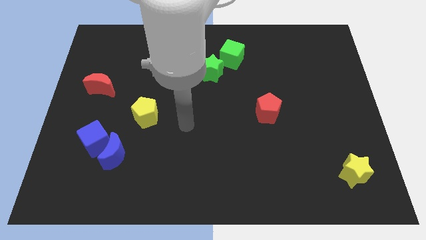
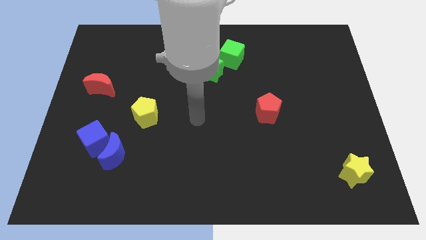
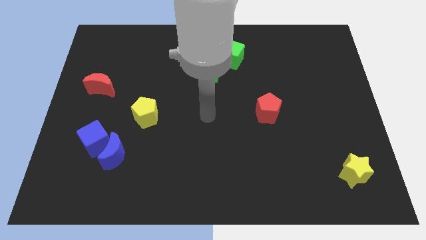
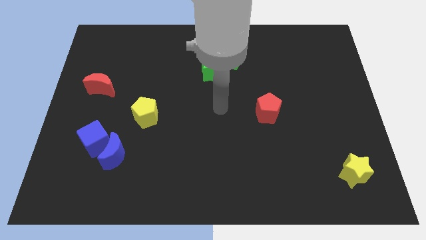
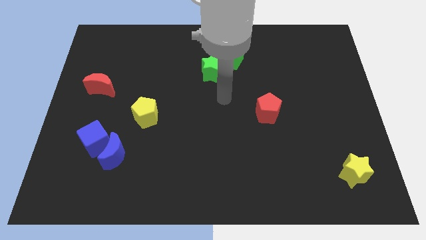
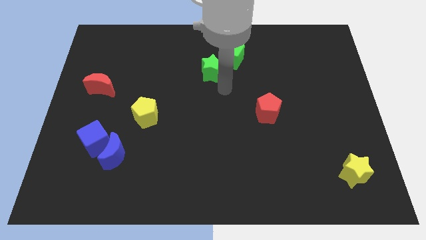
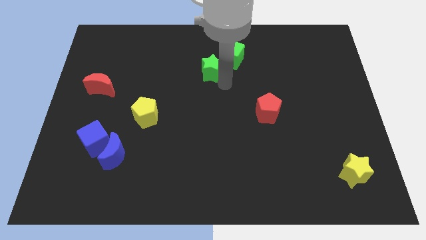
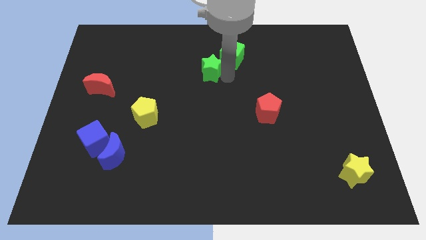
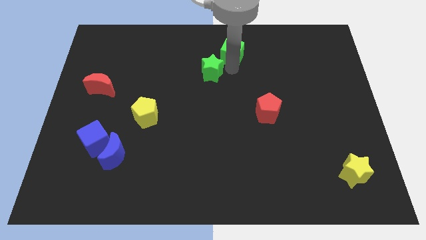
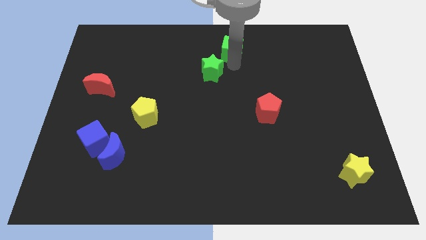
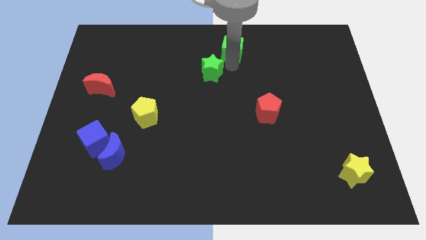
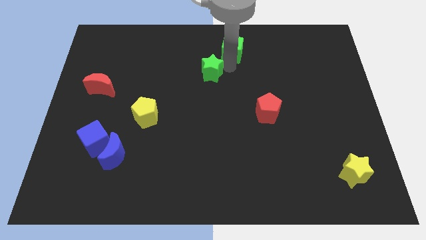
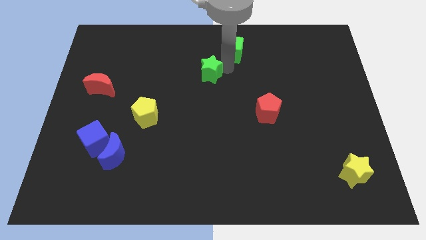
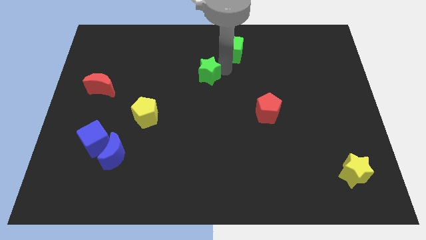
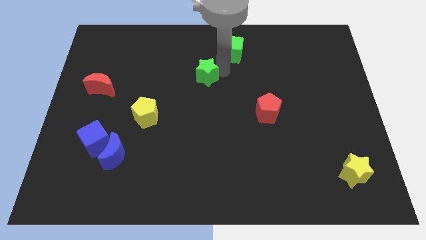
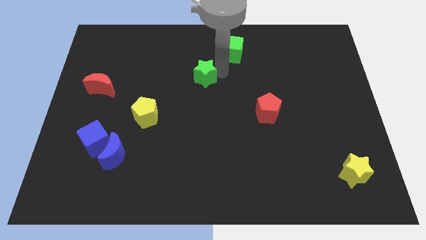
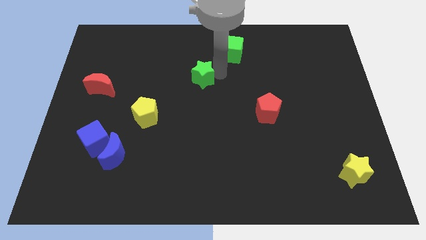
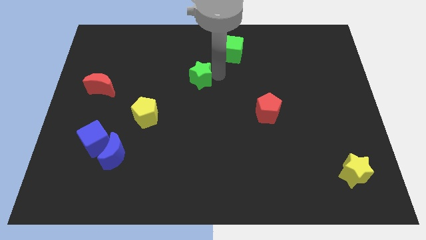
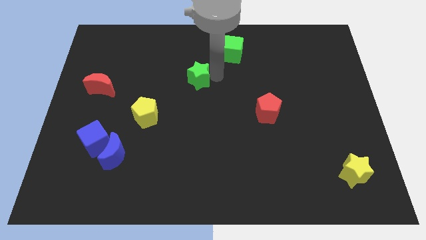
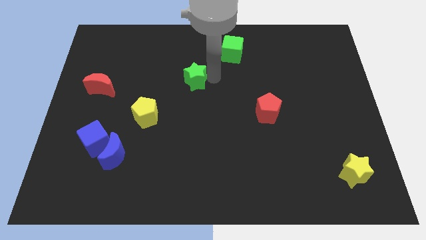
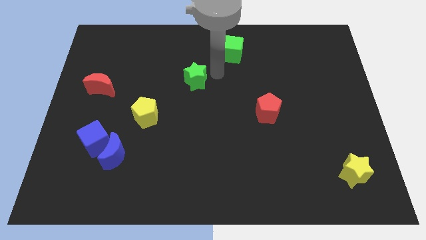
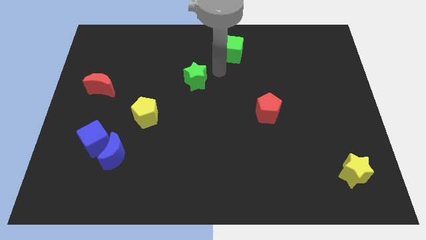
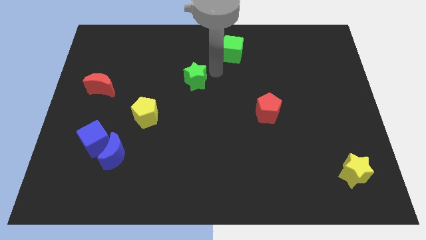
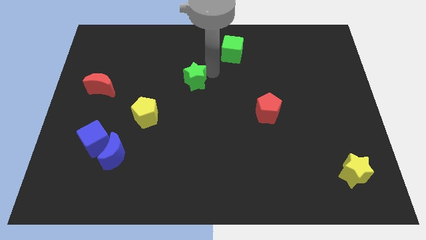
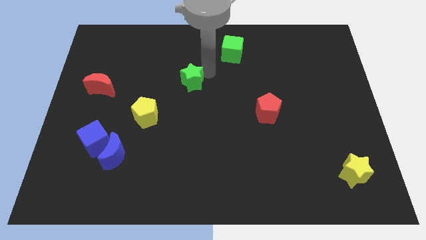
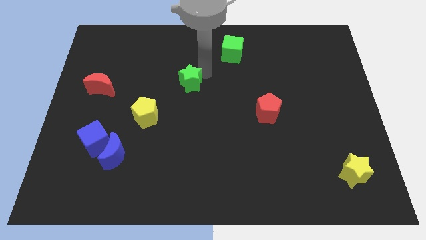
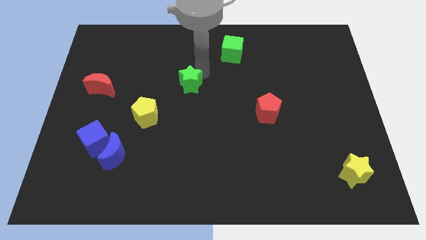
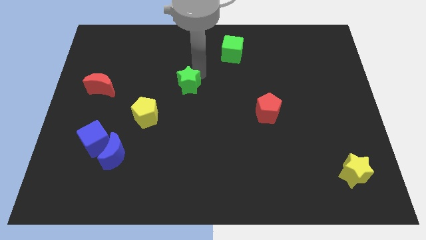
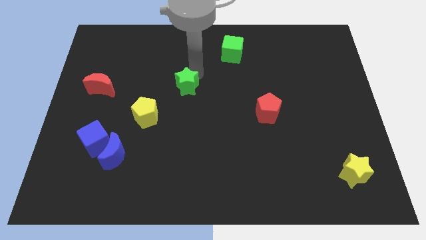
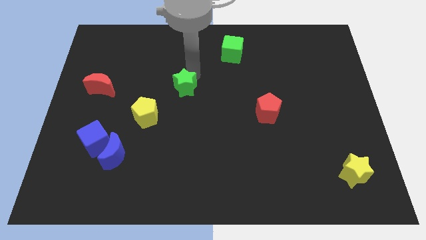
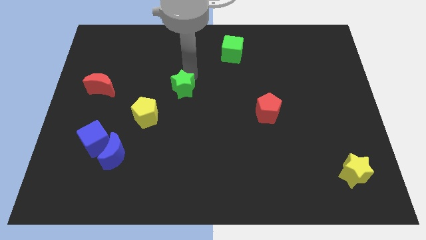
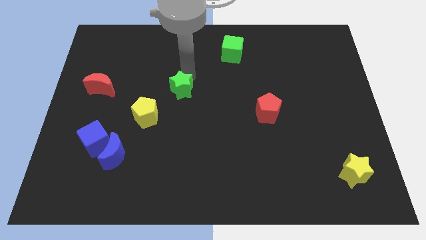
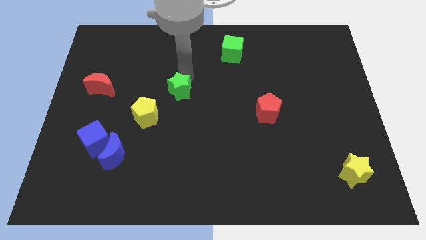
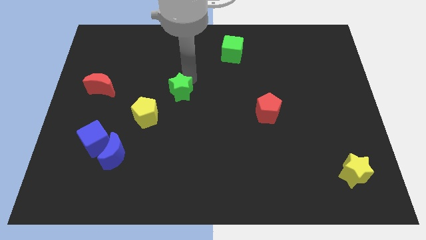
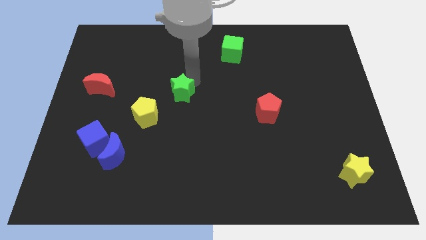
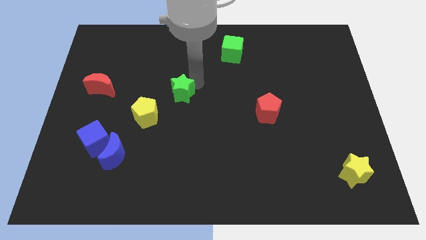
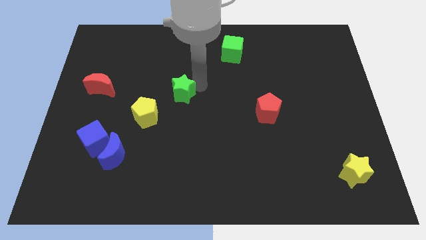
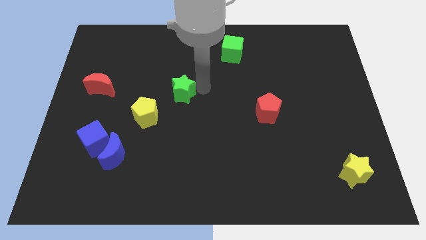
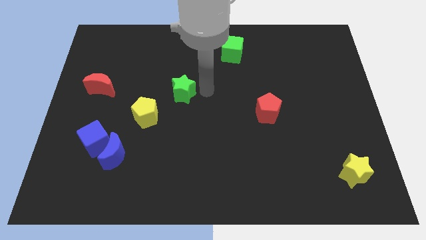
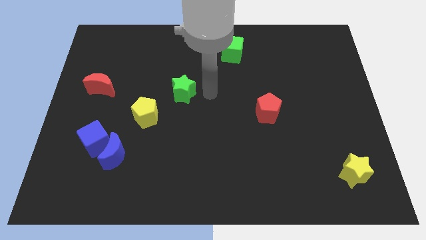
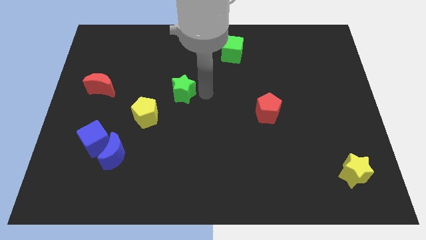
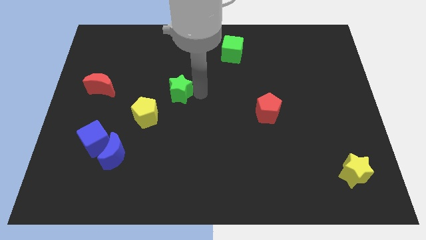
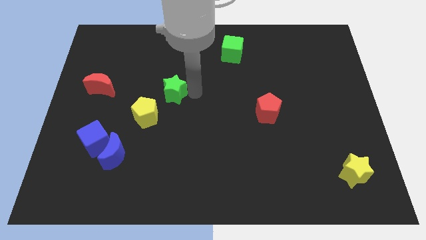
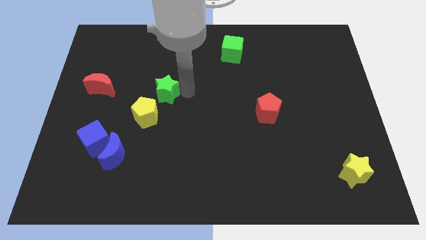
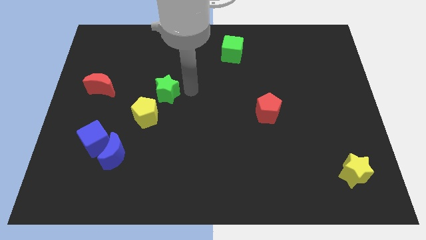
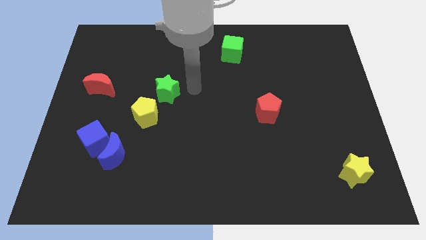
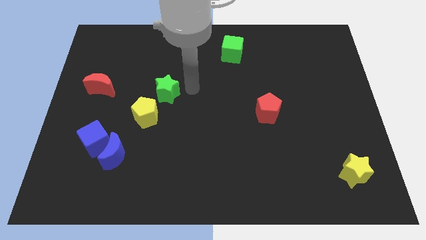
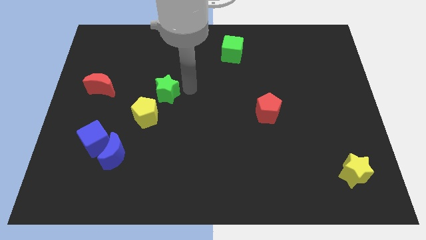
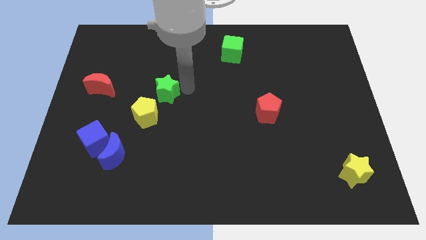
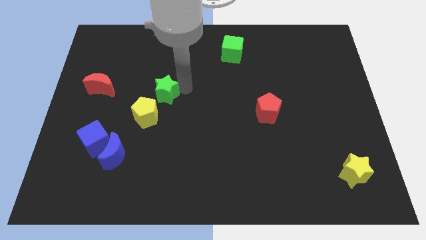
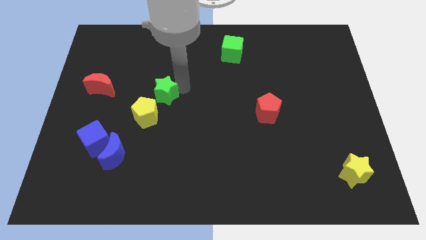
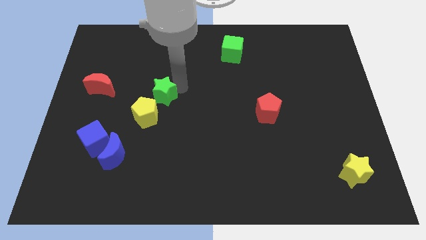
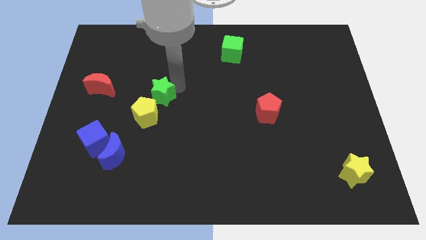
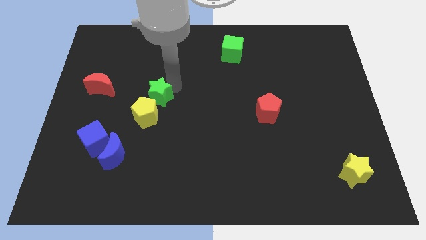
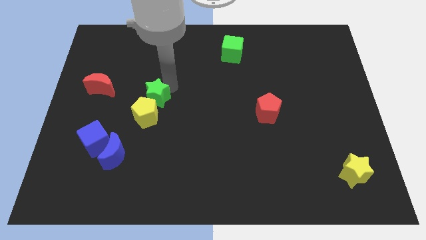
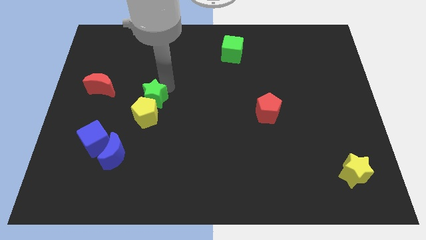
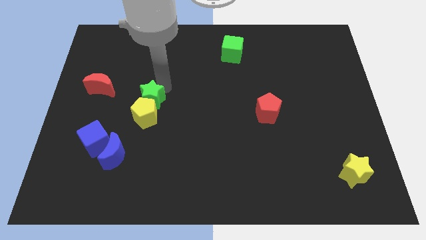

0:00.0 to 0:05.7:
slide the green star diagonally up and to the left of the yellow pentagon

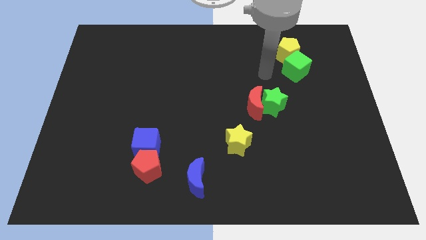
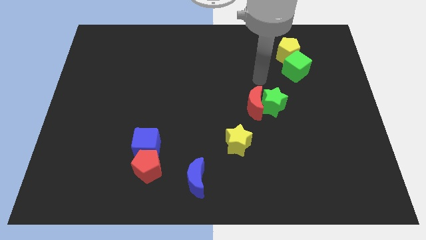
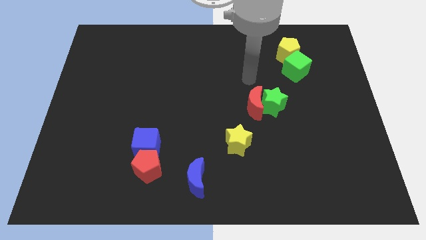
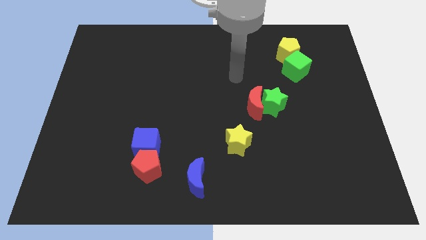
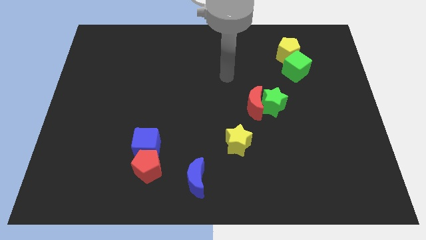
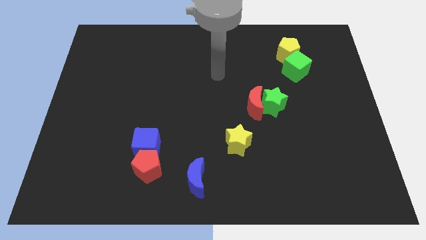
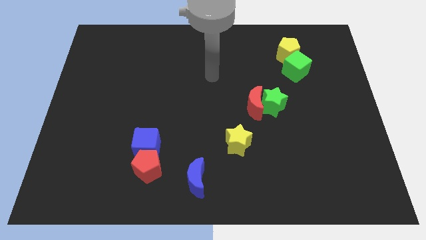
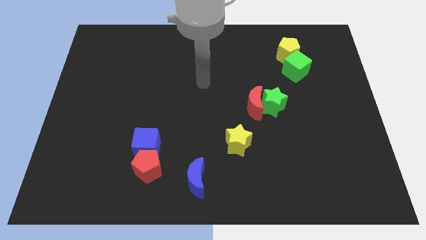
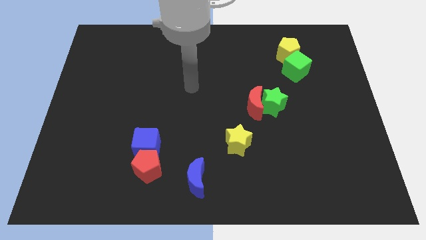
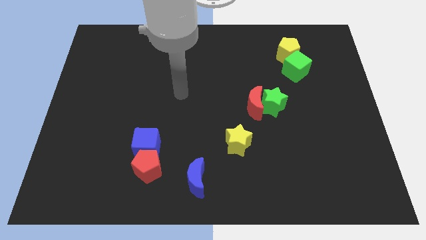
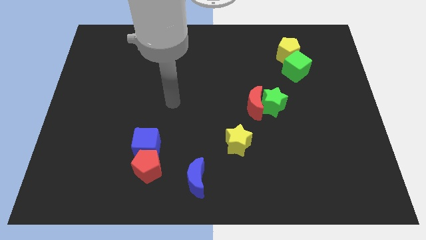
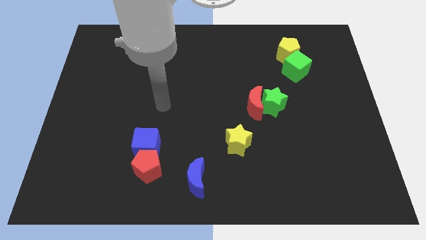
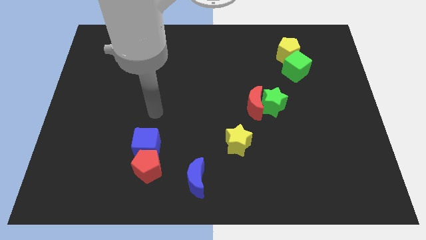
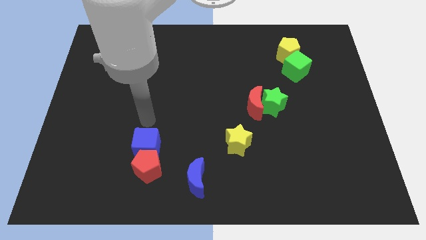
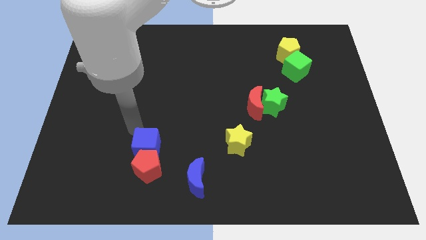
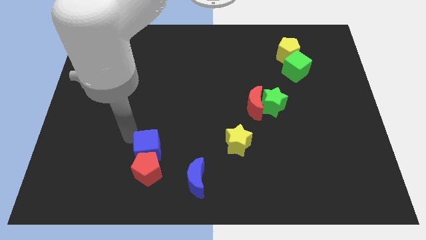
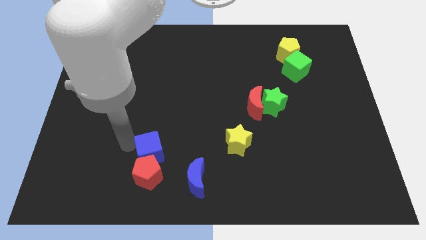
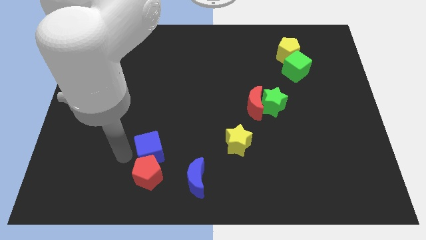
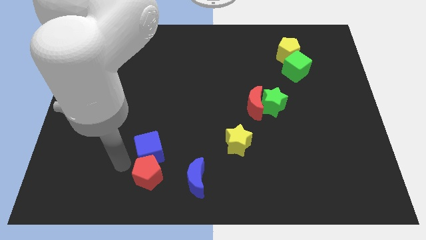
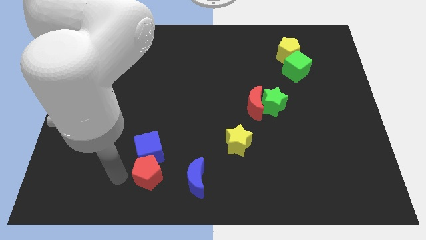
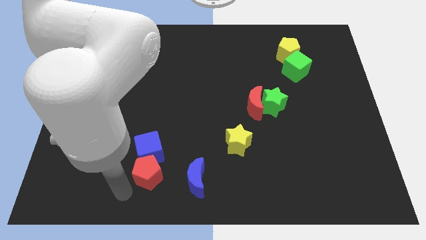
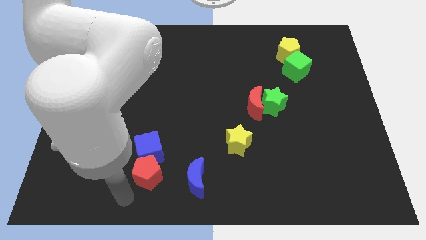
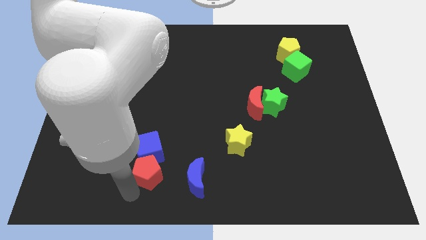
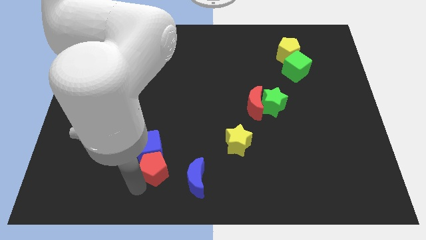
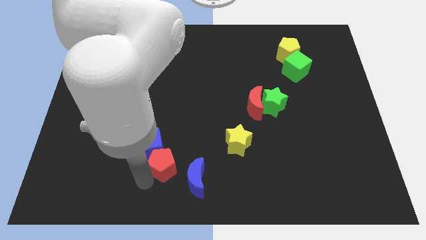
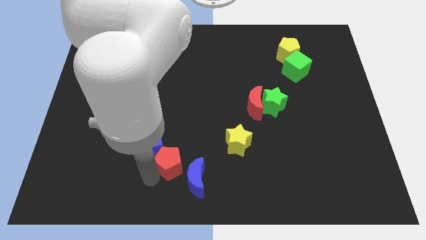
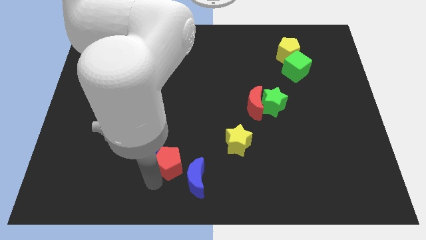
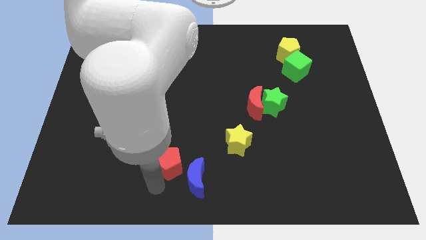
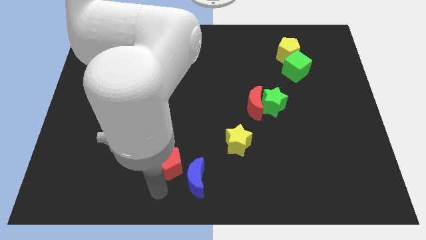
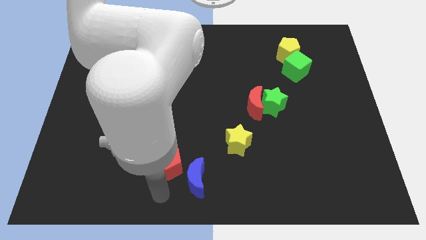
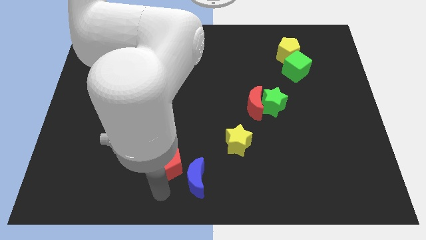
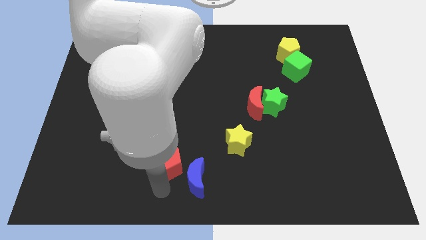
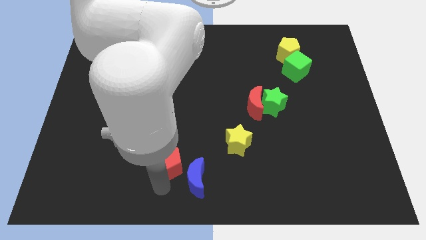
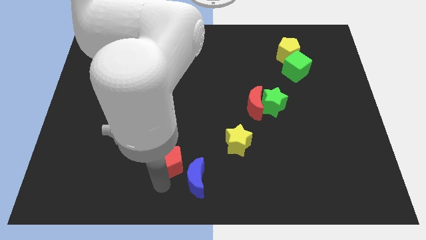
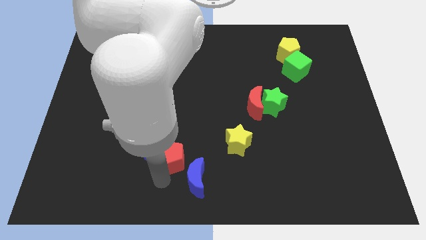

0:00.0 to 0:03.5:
slide the red pentagon to the top side of the blue moon
